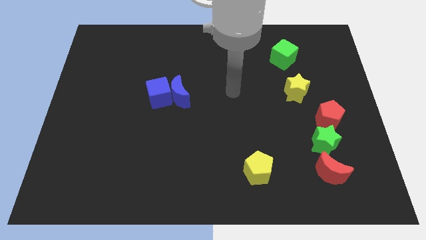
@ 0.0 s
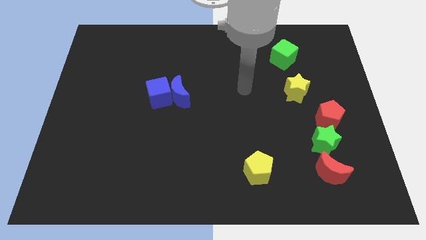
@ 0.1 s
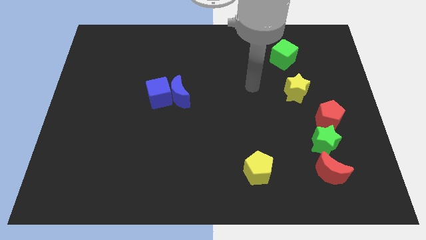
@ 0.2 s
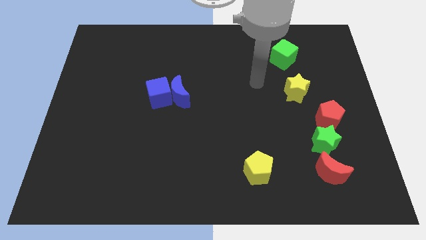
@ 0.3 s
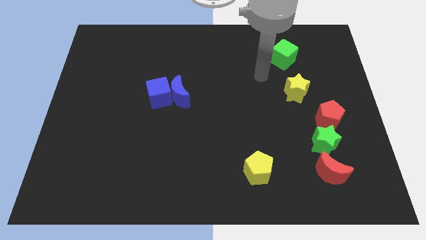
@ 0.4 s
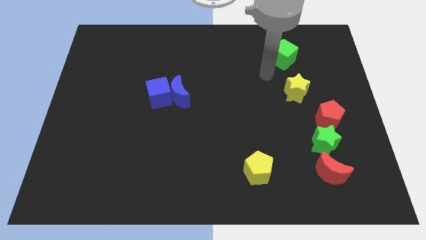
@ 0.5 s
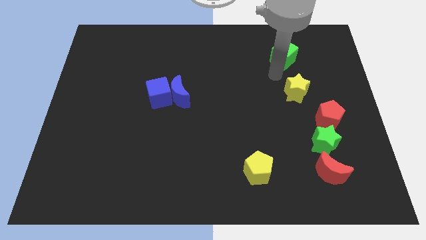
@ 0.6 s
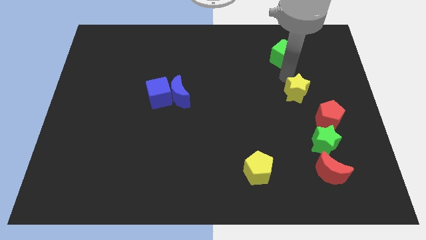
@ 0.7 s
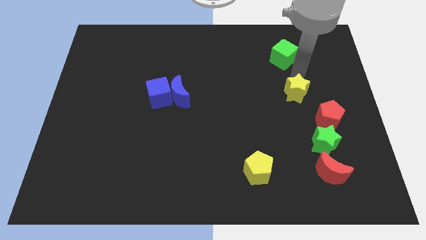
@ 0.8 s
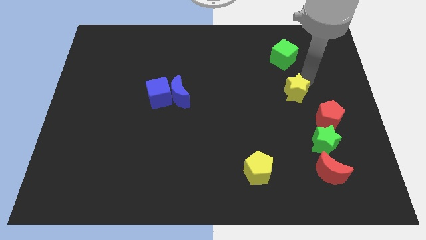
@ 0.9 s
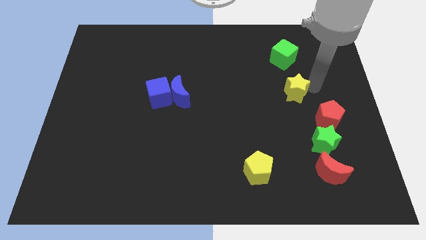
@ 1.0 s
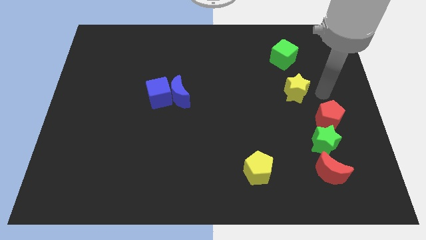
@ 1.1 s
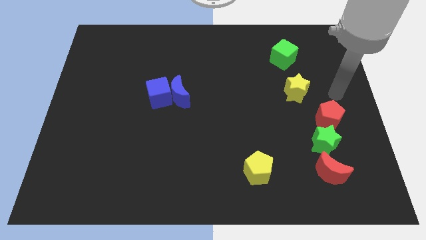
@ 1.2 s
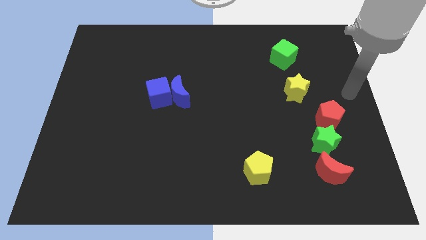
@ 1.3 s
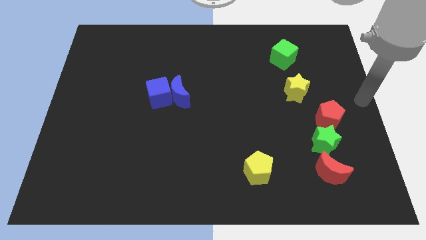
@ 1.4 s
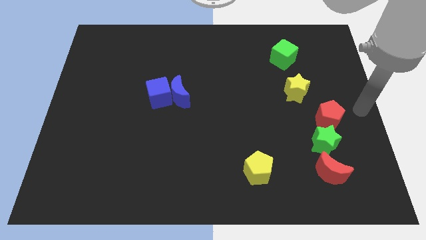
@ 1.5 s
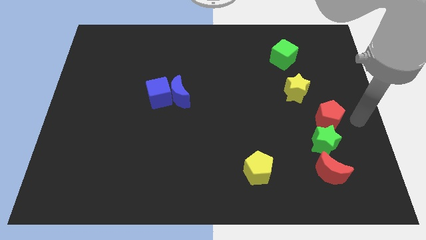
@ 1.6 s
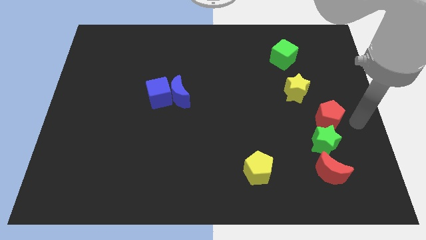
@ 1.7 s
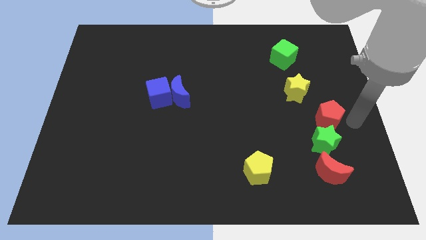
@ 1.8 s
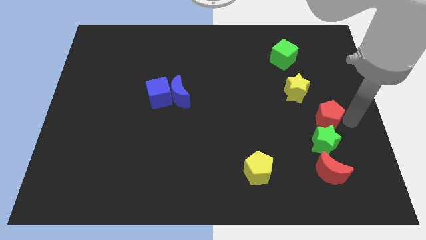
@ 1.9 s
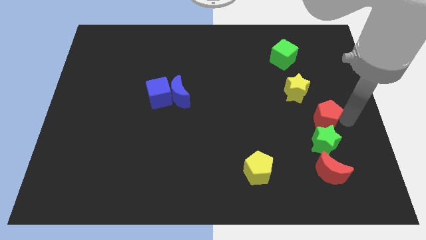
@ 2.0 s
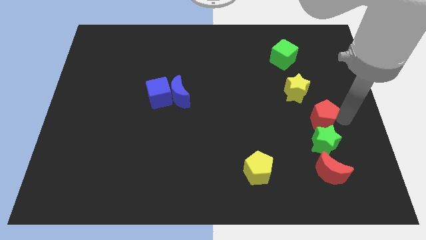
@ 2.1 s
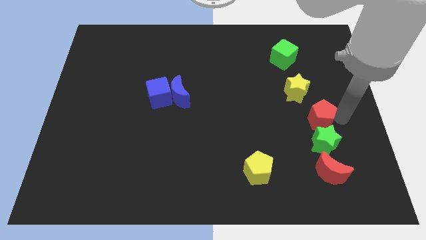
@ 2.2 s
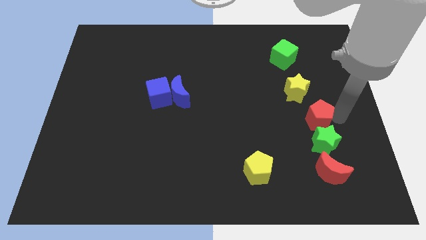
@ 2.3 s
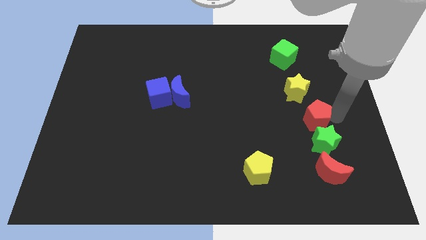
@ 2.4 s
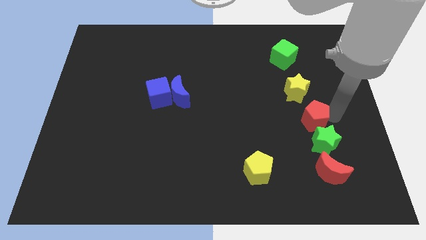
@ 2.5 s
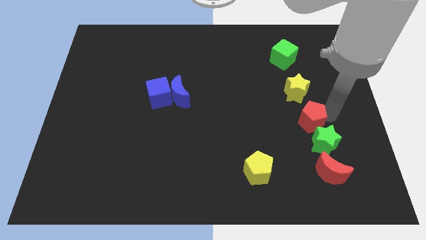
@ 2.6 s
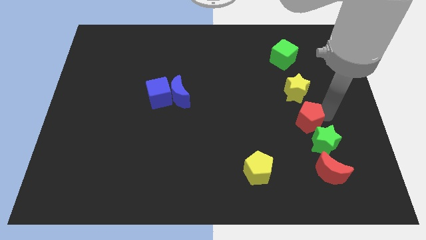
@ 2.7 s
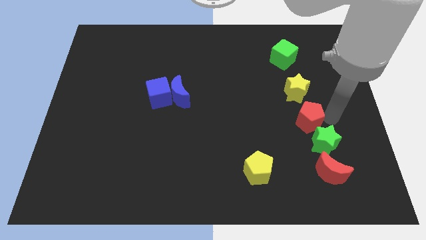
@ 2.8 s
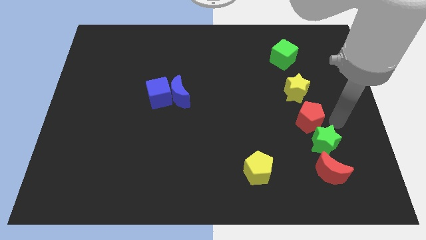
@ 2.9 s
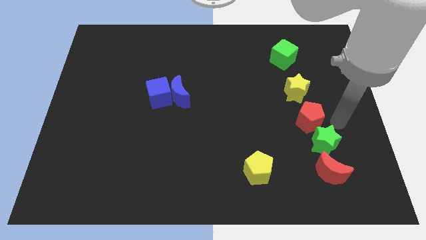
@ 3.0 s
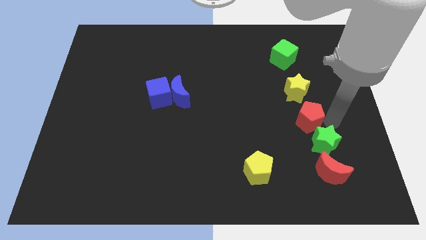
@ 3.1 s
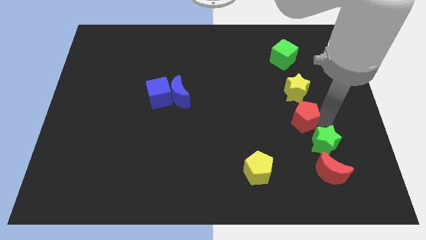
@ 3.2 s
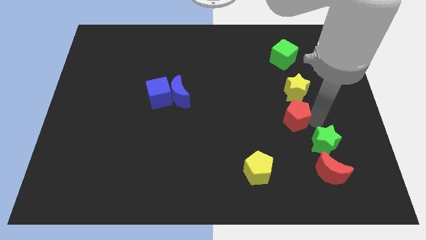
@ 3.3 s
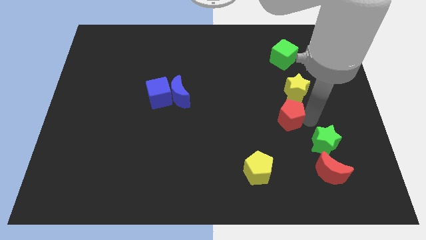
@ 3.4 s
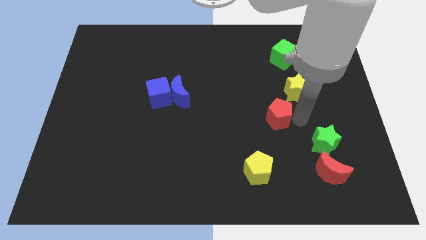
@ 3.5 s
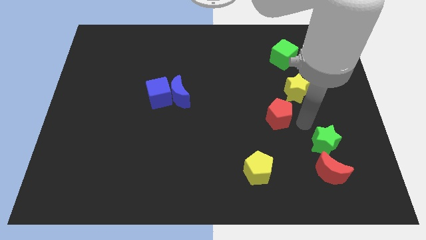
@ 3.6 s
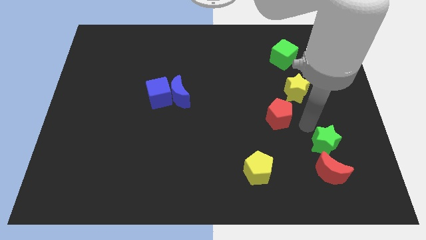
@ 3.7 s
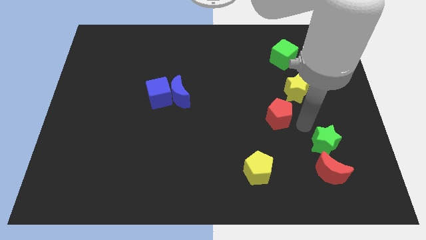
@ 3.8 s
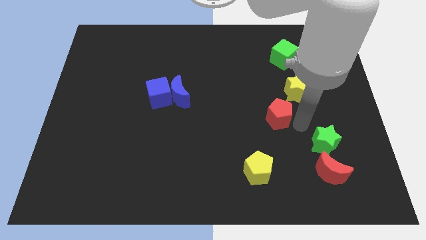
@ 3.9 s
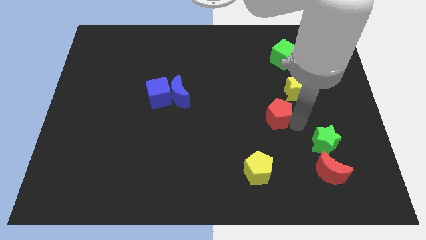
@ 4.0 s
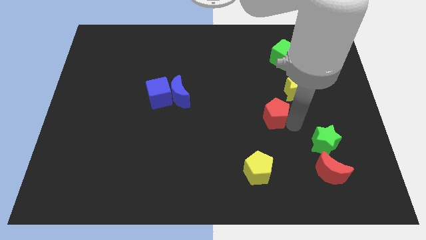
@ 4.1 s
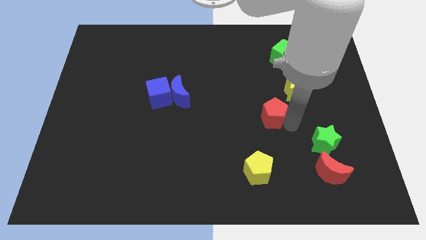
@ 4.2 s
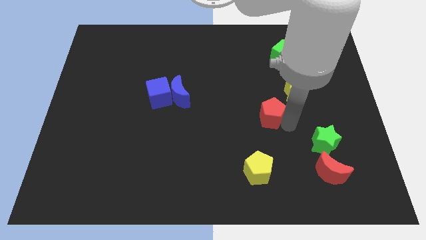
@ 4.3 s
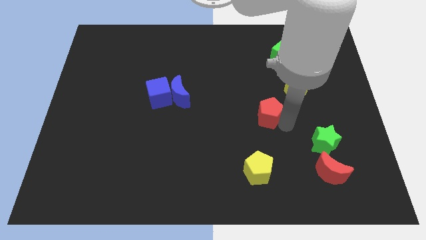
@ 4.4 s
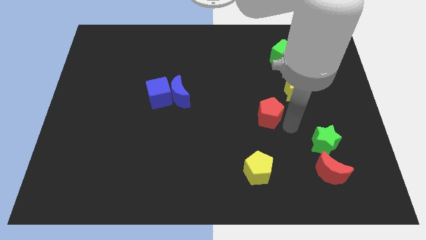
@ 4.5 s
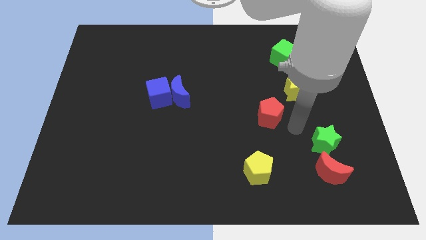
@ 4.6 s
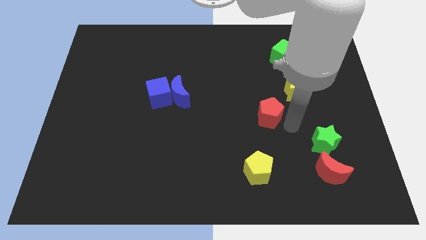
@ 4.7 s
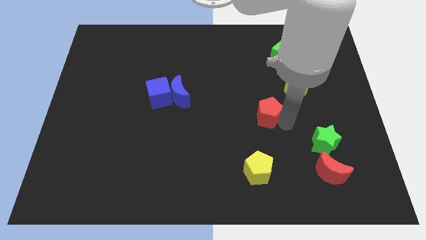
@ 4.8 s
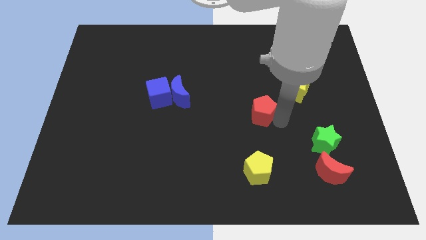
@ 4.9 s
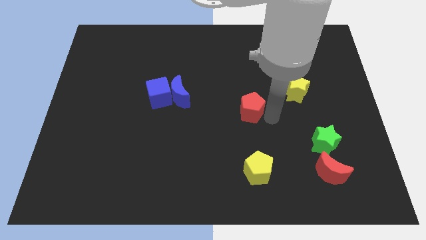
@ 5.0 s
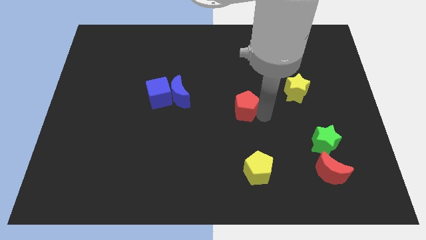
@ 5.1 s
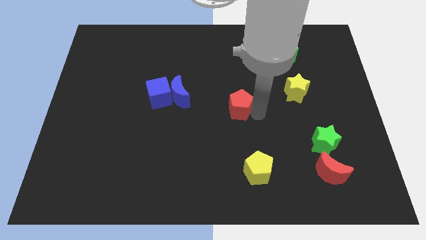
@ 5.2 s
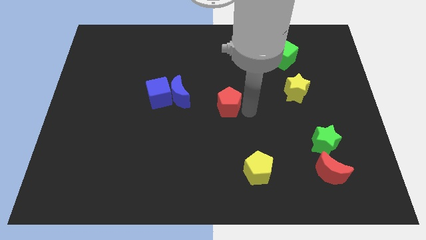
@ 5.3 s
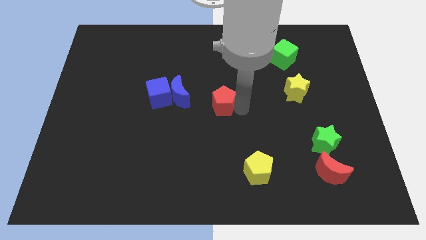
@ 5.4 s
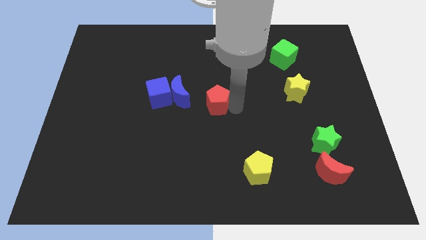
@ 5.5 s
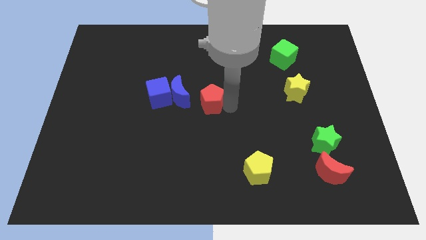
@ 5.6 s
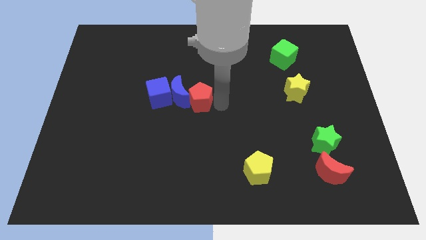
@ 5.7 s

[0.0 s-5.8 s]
move the red pentagon next to the blue moon

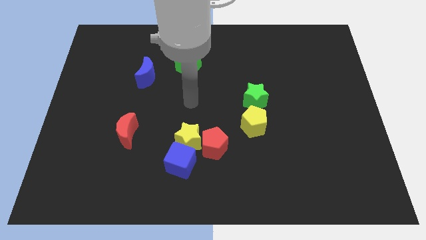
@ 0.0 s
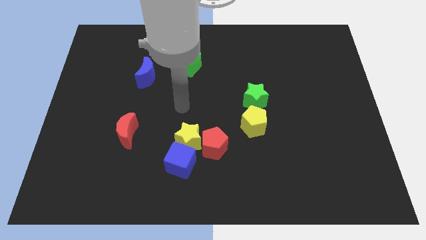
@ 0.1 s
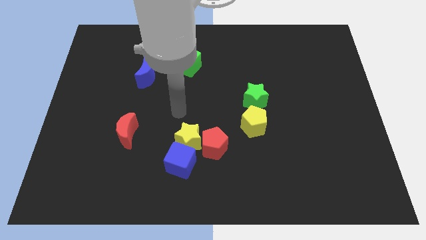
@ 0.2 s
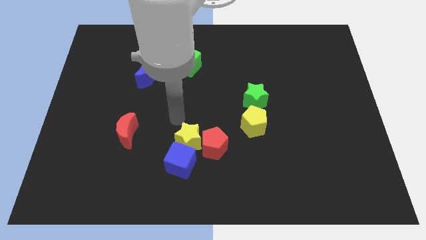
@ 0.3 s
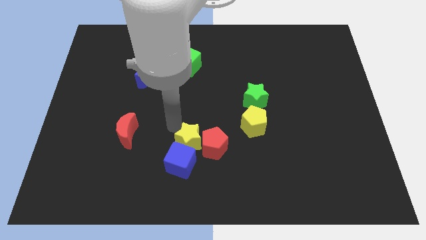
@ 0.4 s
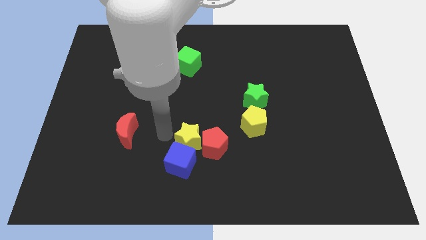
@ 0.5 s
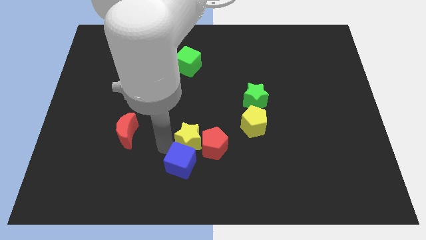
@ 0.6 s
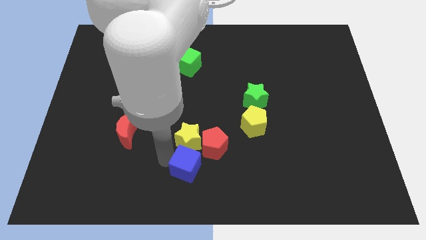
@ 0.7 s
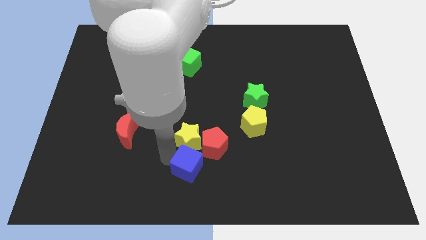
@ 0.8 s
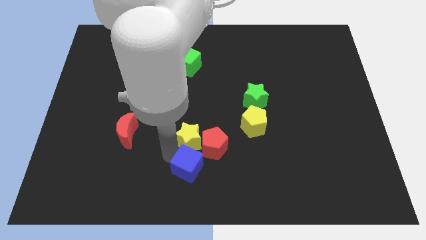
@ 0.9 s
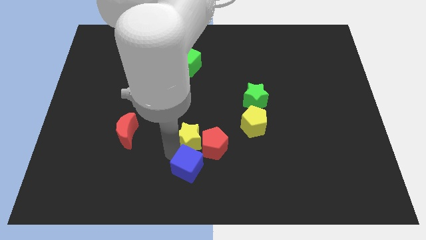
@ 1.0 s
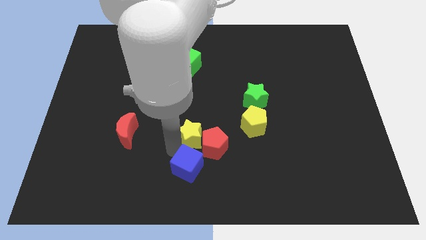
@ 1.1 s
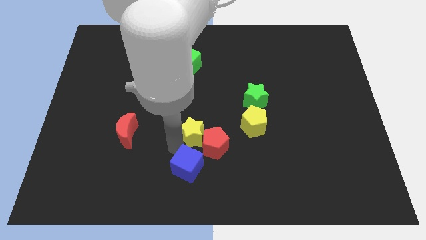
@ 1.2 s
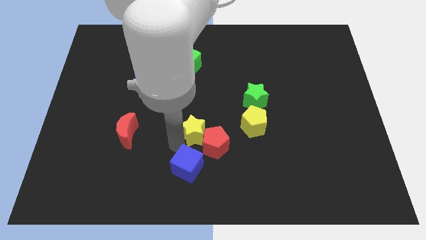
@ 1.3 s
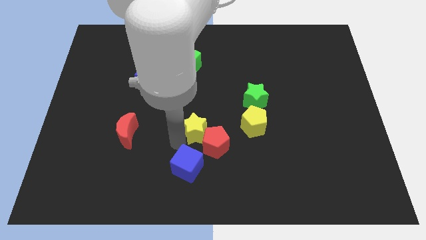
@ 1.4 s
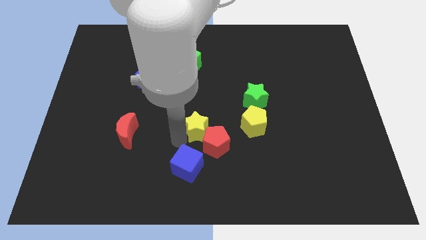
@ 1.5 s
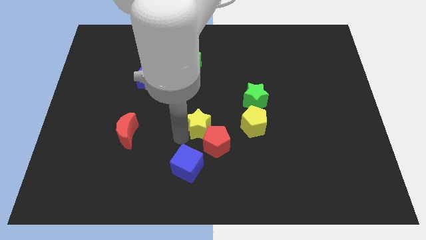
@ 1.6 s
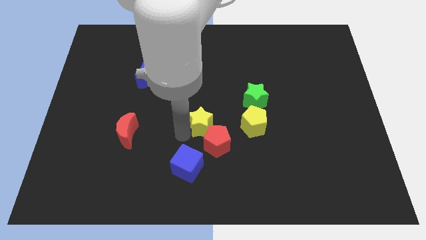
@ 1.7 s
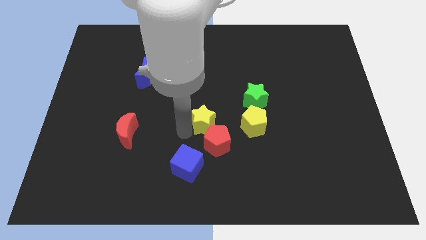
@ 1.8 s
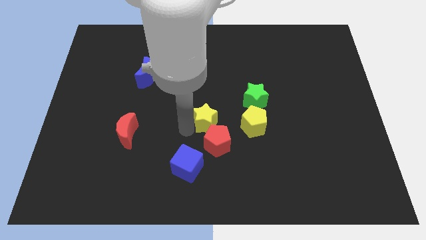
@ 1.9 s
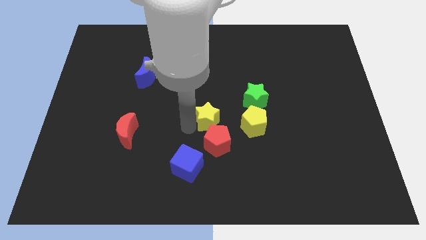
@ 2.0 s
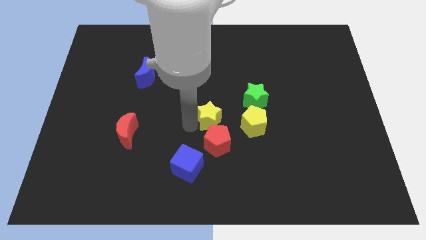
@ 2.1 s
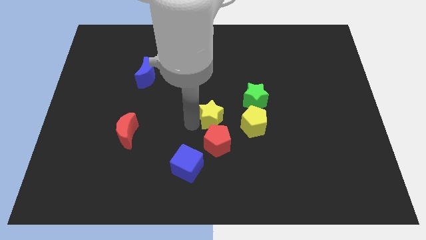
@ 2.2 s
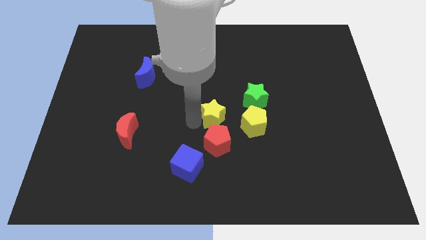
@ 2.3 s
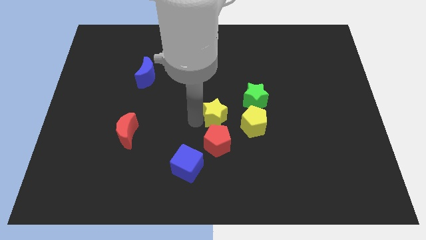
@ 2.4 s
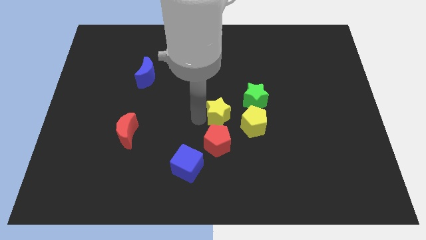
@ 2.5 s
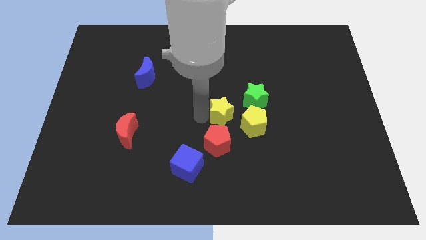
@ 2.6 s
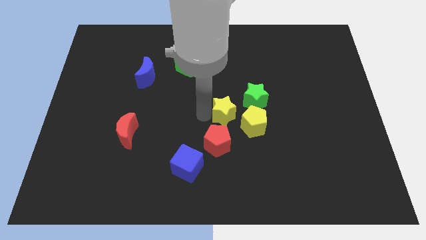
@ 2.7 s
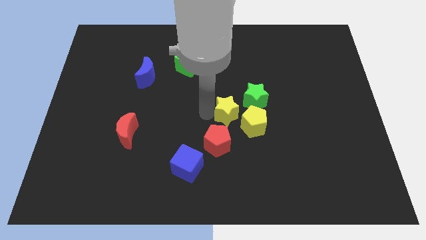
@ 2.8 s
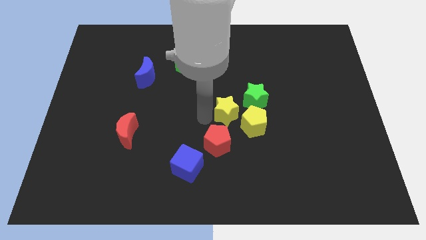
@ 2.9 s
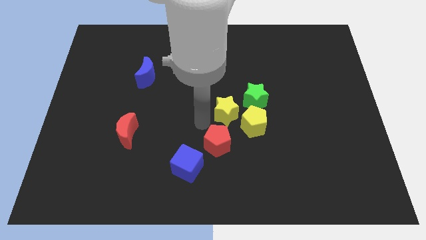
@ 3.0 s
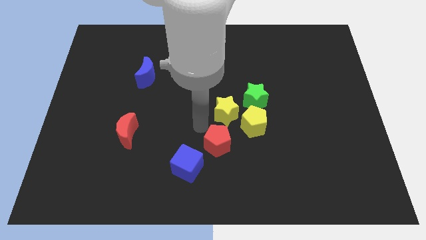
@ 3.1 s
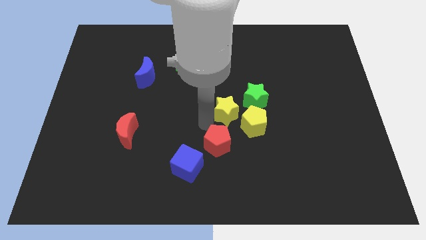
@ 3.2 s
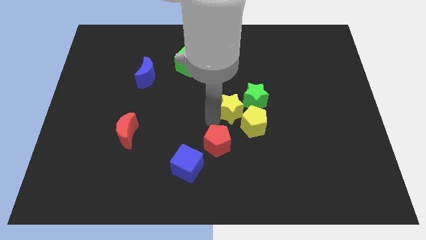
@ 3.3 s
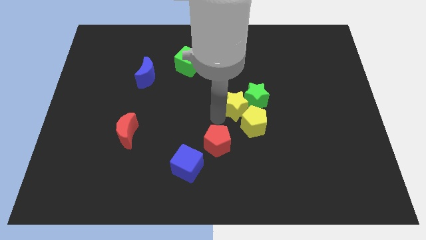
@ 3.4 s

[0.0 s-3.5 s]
push the yellow star to the green star
